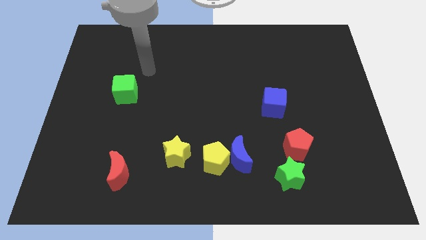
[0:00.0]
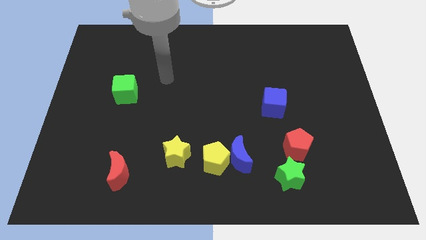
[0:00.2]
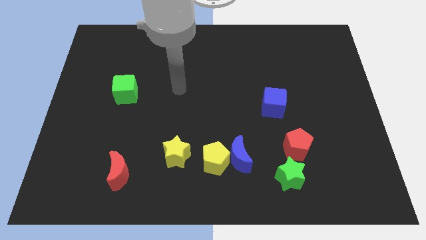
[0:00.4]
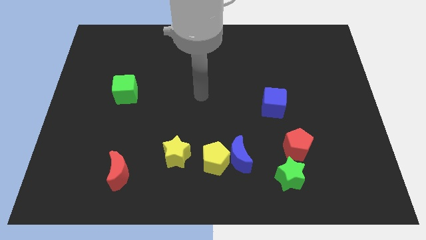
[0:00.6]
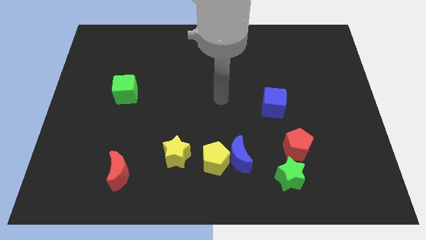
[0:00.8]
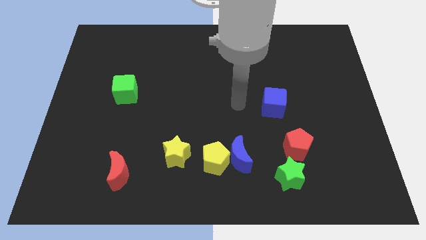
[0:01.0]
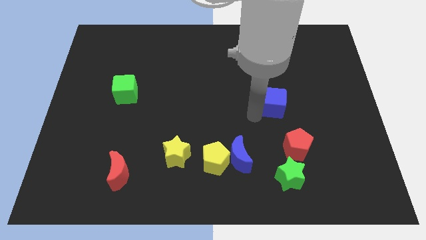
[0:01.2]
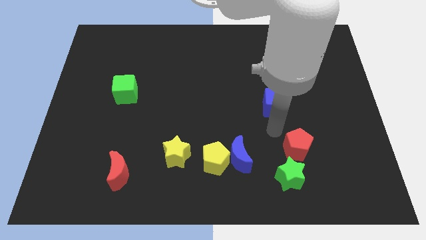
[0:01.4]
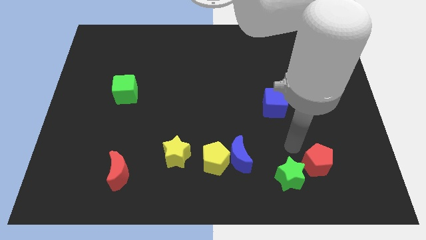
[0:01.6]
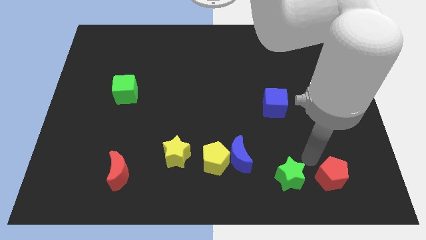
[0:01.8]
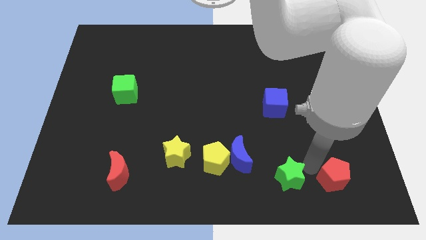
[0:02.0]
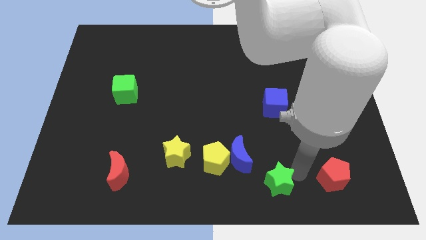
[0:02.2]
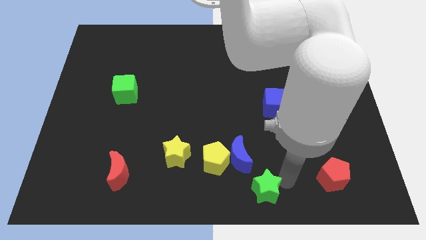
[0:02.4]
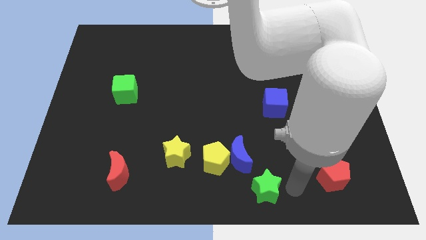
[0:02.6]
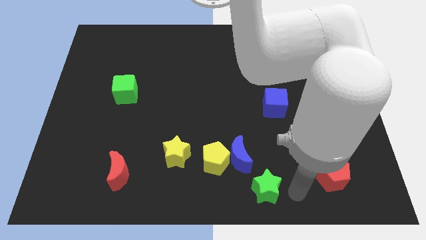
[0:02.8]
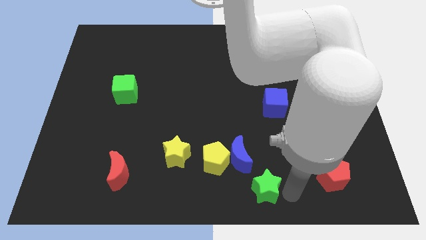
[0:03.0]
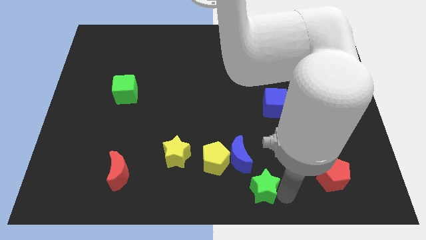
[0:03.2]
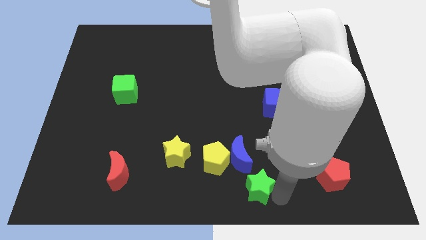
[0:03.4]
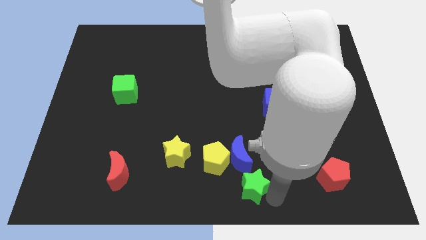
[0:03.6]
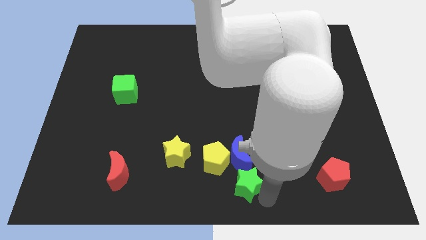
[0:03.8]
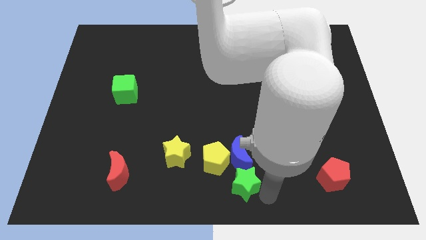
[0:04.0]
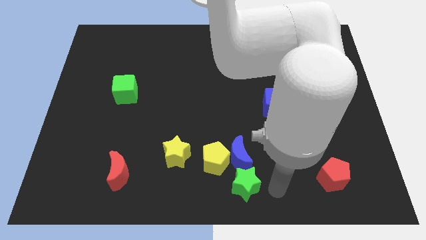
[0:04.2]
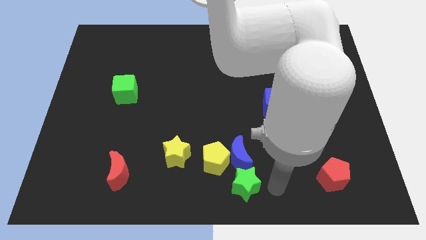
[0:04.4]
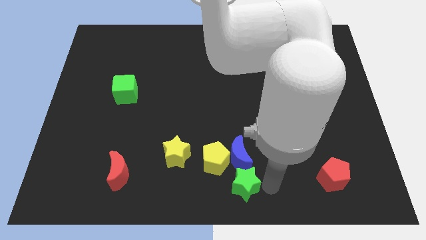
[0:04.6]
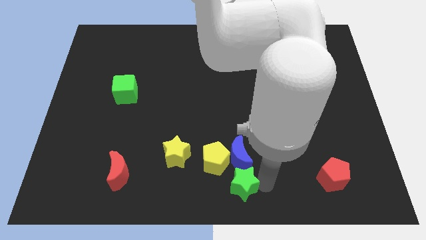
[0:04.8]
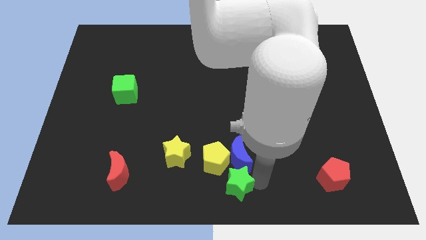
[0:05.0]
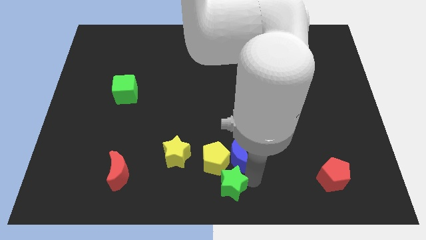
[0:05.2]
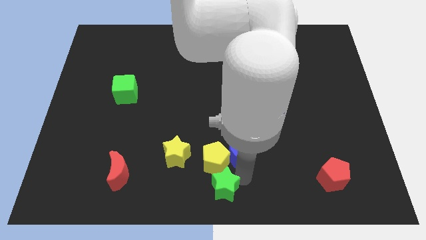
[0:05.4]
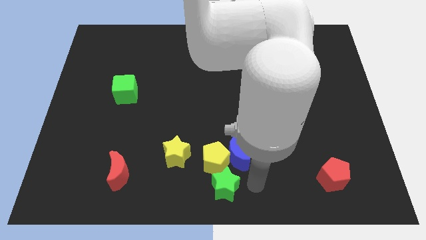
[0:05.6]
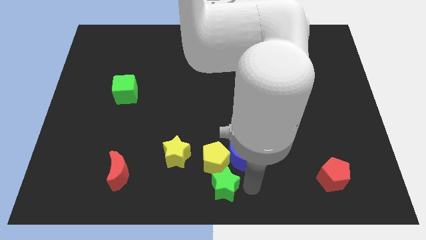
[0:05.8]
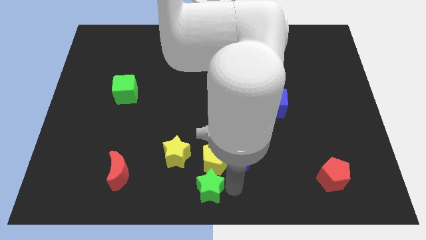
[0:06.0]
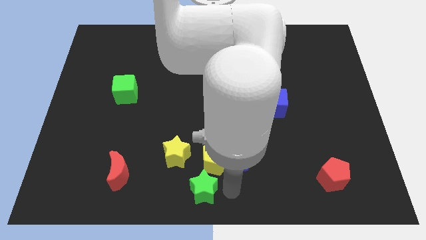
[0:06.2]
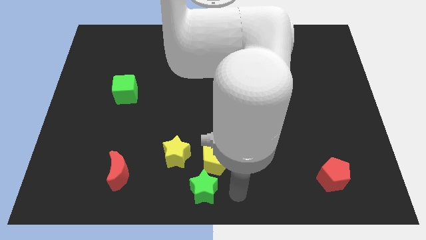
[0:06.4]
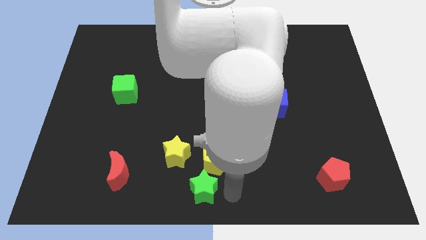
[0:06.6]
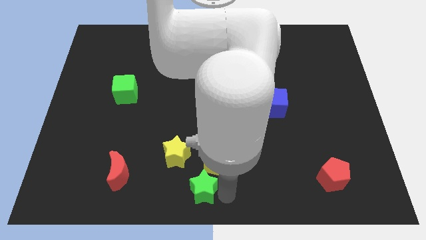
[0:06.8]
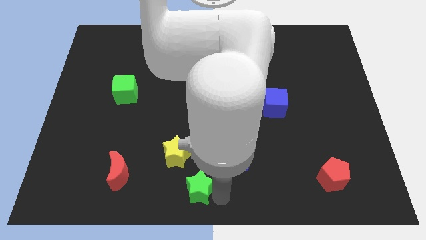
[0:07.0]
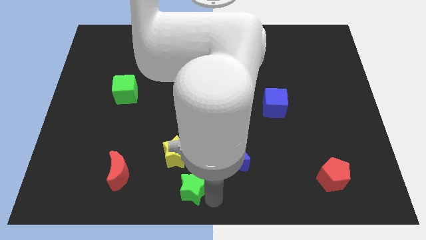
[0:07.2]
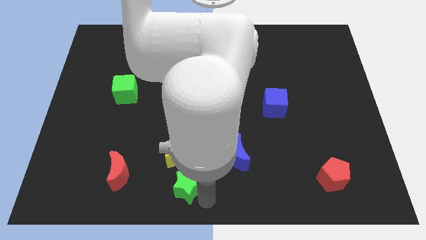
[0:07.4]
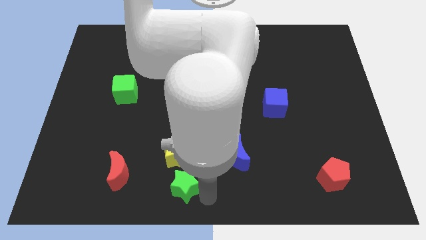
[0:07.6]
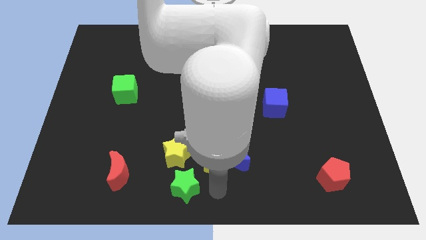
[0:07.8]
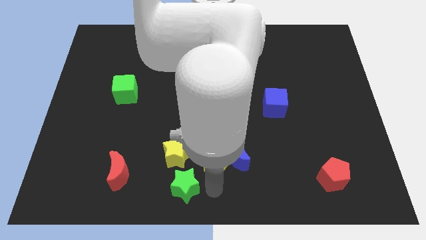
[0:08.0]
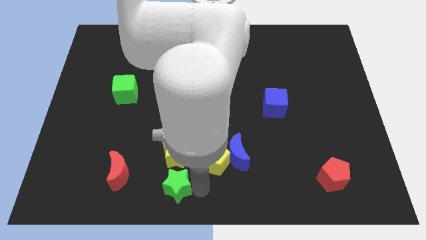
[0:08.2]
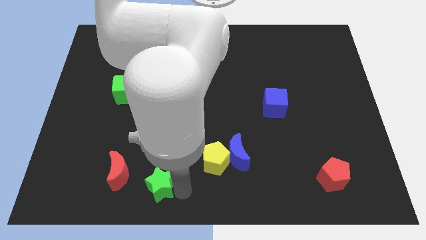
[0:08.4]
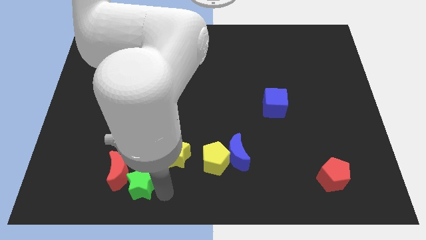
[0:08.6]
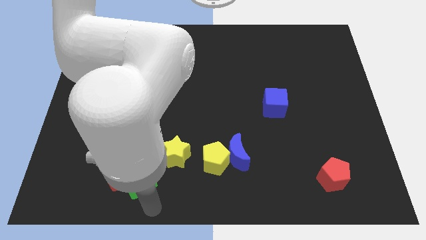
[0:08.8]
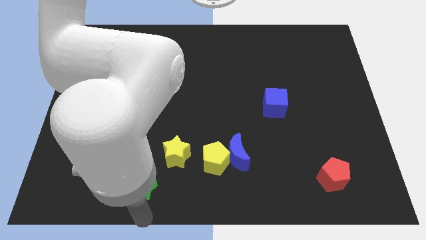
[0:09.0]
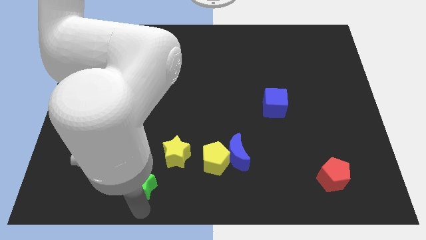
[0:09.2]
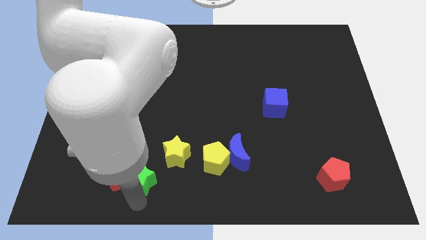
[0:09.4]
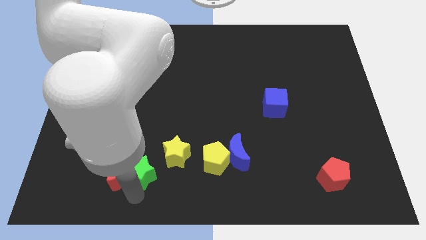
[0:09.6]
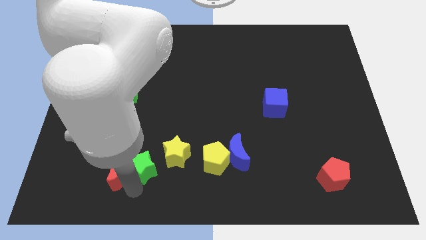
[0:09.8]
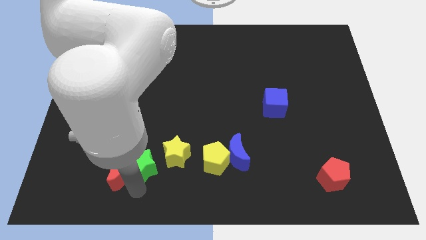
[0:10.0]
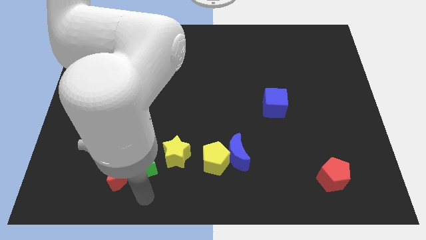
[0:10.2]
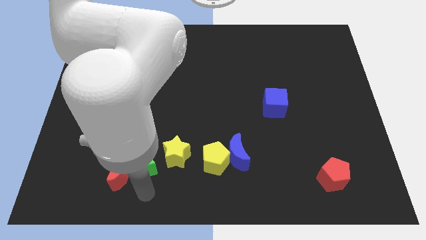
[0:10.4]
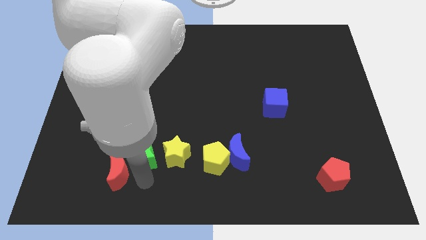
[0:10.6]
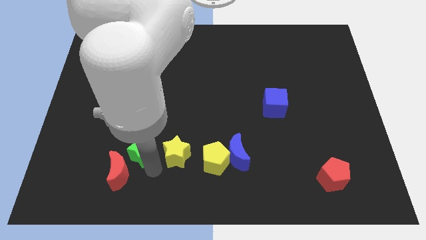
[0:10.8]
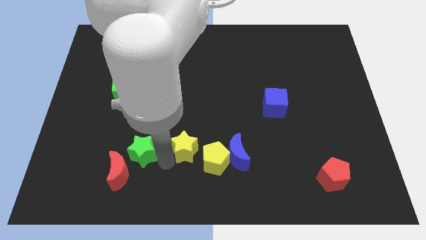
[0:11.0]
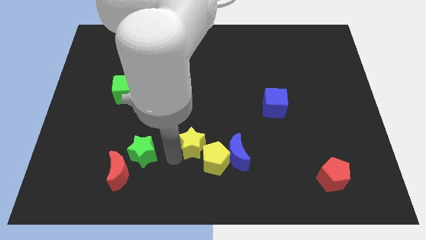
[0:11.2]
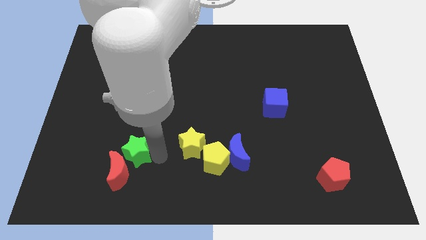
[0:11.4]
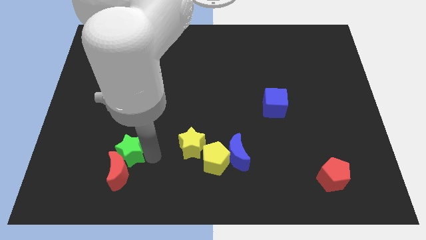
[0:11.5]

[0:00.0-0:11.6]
put the green star diagonally up and to the left of the red moon
